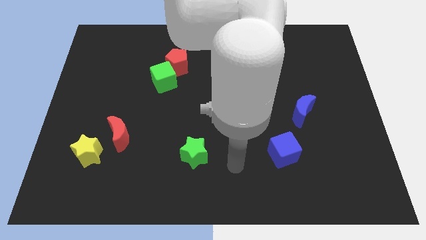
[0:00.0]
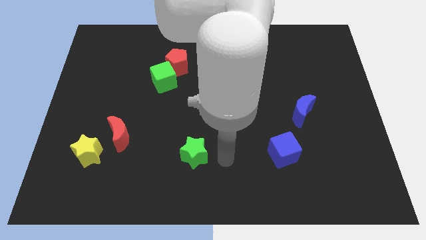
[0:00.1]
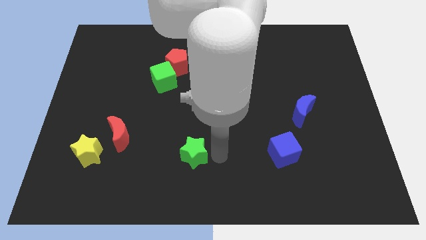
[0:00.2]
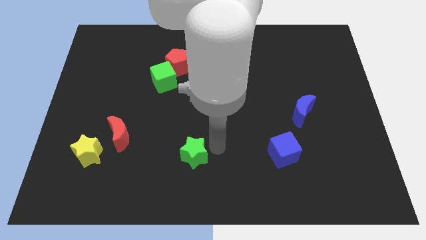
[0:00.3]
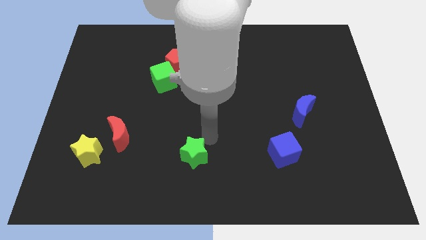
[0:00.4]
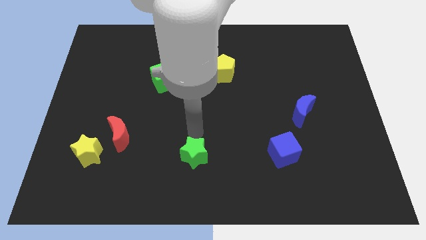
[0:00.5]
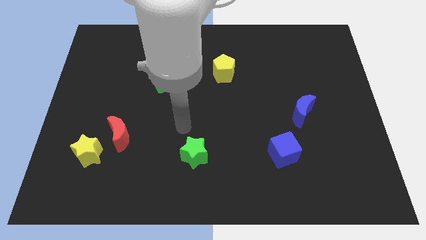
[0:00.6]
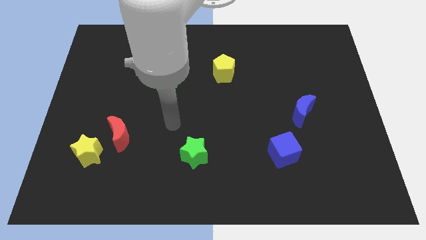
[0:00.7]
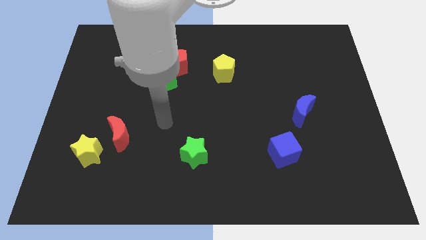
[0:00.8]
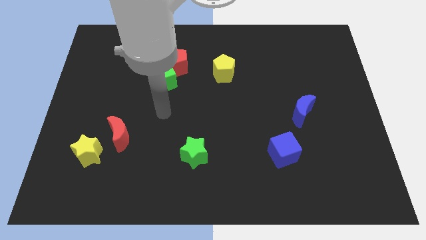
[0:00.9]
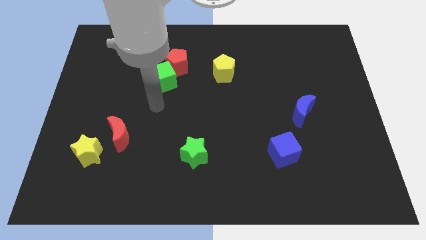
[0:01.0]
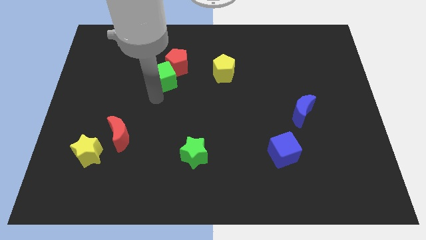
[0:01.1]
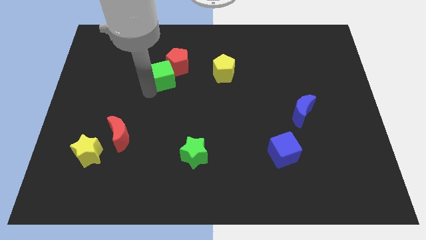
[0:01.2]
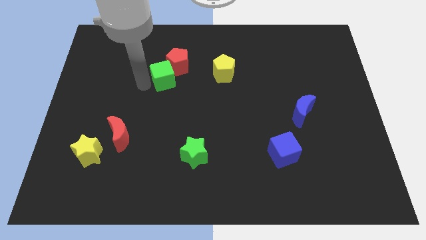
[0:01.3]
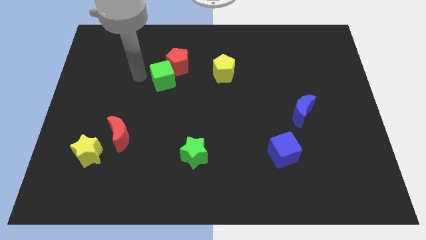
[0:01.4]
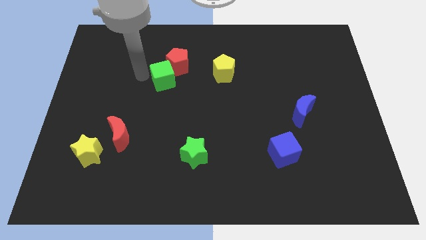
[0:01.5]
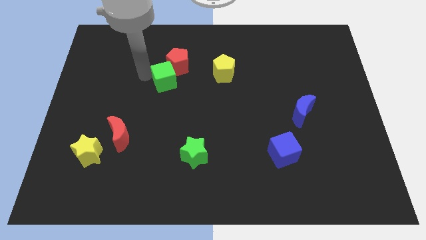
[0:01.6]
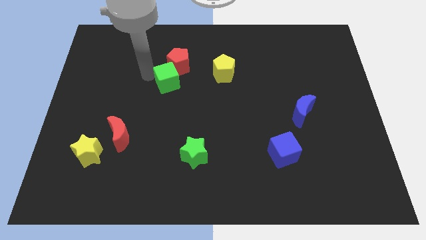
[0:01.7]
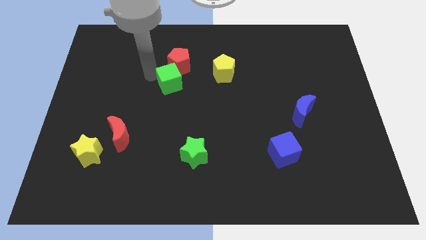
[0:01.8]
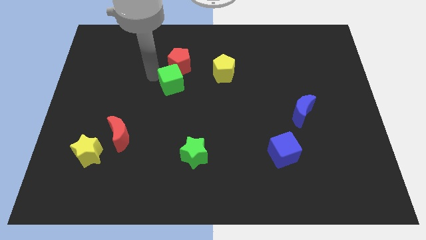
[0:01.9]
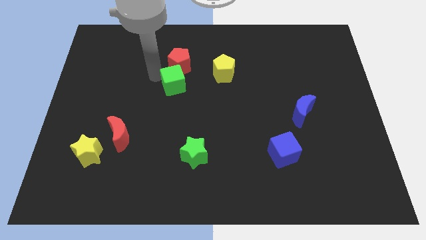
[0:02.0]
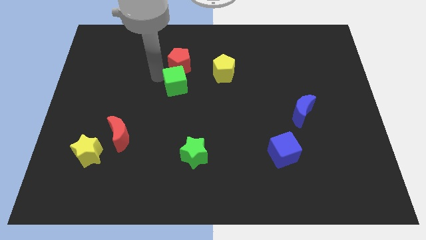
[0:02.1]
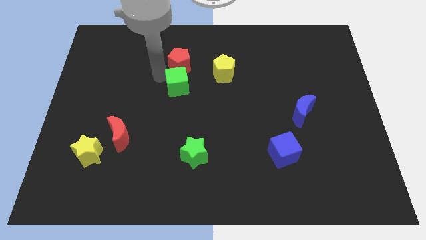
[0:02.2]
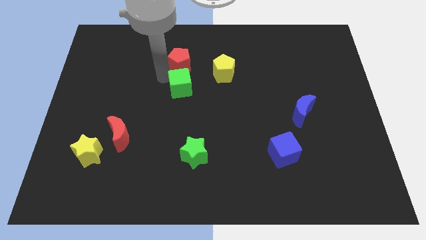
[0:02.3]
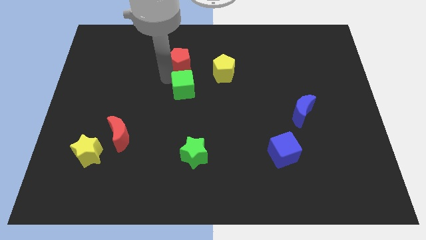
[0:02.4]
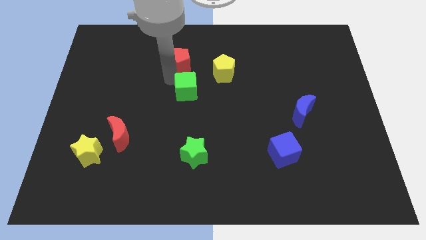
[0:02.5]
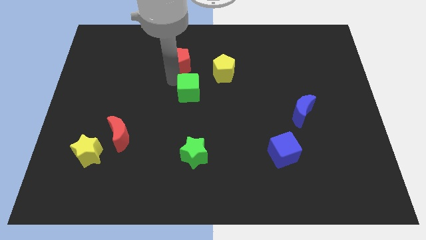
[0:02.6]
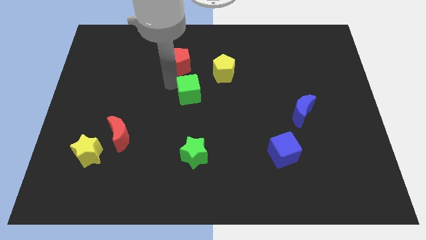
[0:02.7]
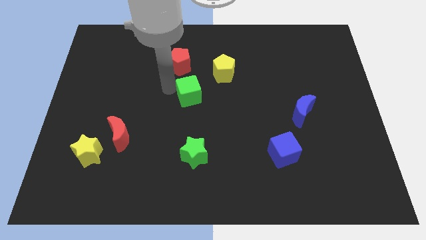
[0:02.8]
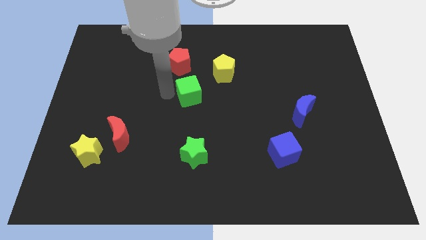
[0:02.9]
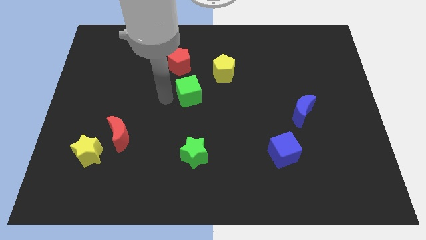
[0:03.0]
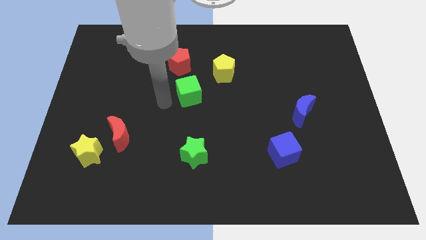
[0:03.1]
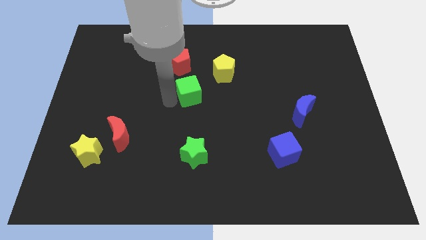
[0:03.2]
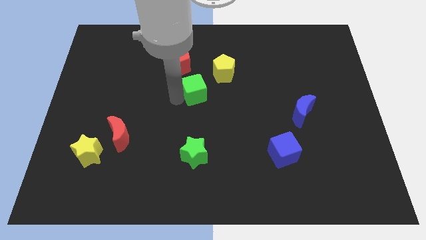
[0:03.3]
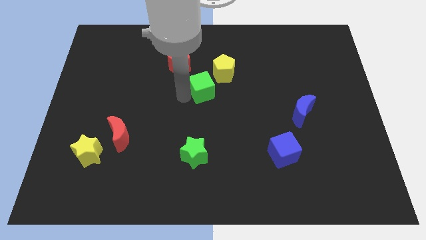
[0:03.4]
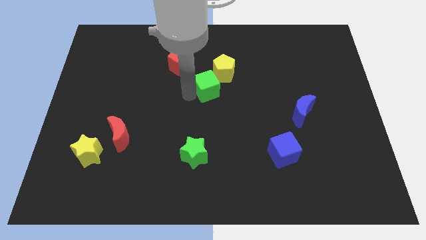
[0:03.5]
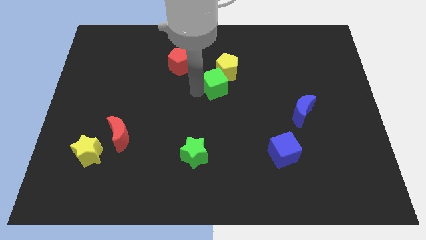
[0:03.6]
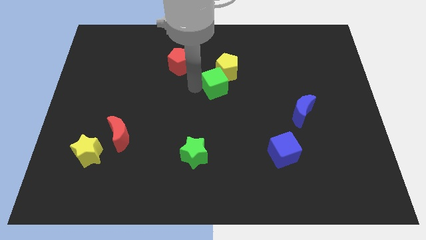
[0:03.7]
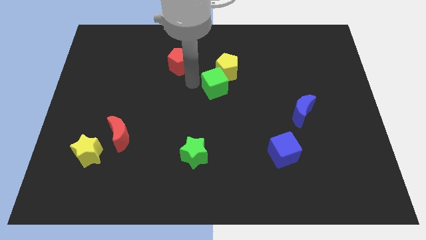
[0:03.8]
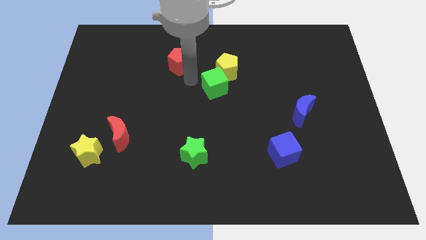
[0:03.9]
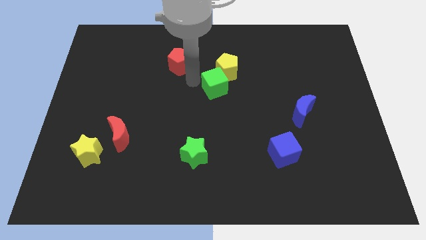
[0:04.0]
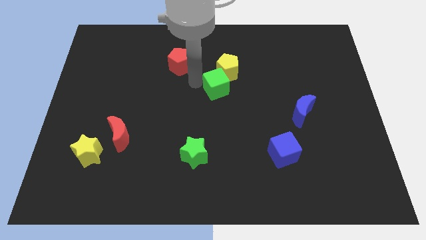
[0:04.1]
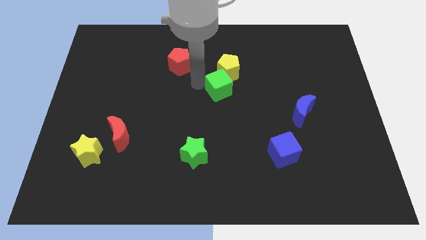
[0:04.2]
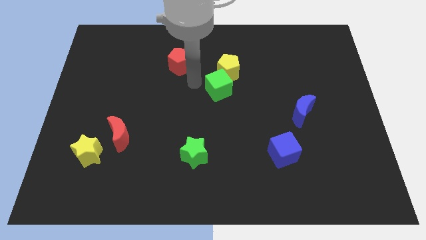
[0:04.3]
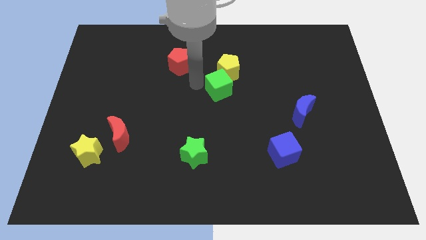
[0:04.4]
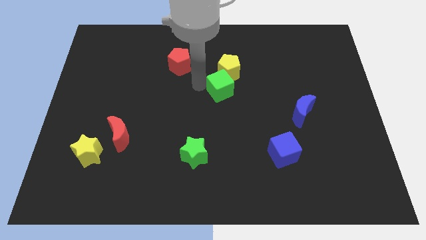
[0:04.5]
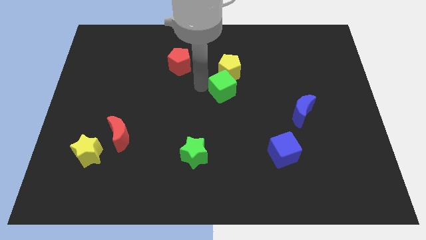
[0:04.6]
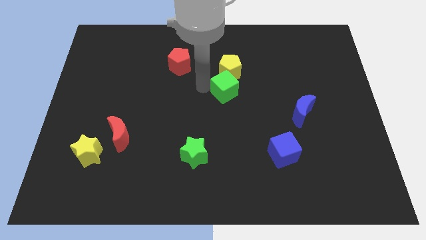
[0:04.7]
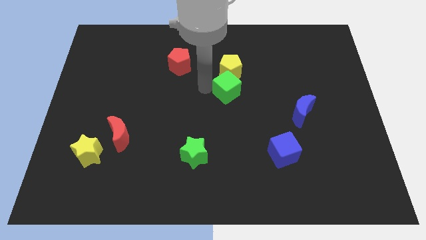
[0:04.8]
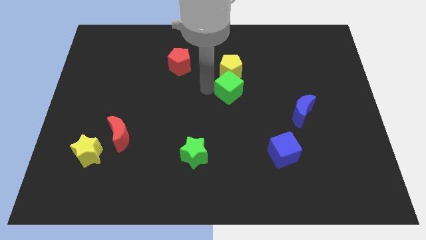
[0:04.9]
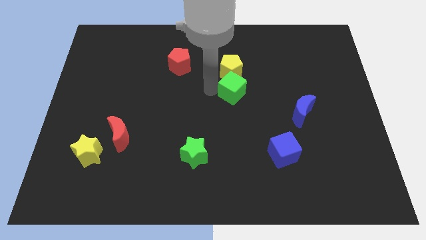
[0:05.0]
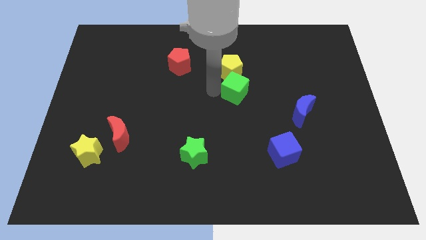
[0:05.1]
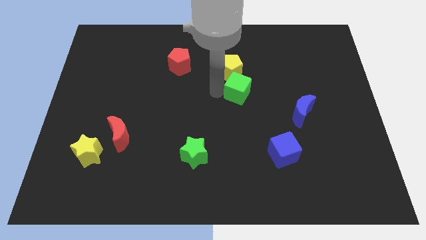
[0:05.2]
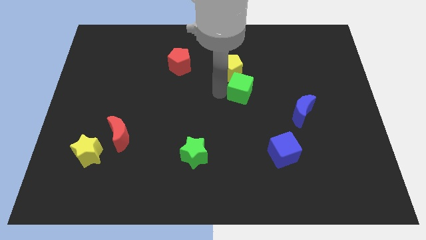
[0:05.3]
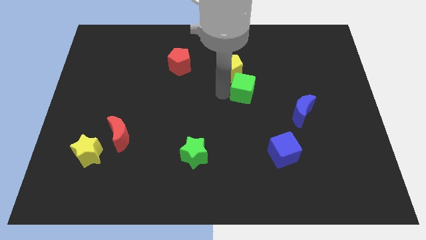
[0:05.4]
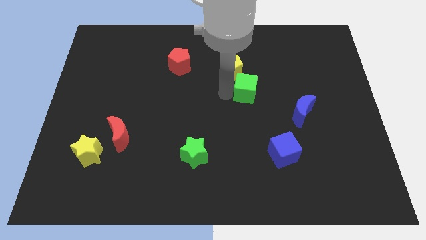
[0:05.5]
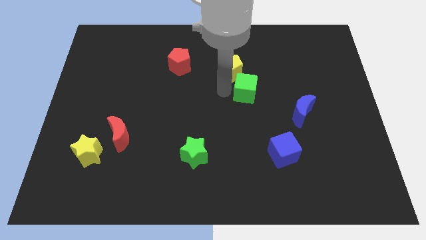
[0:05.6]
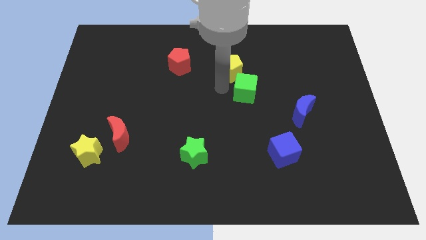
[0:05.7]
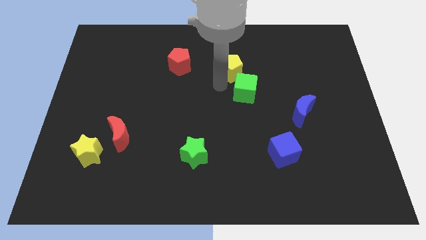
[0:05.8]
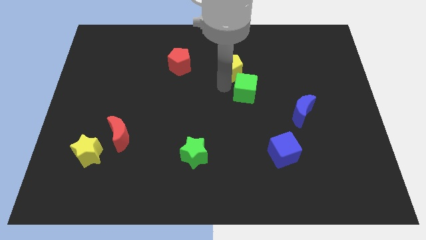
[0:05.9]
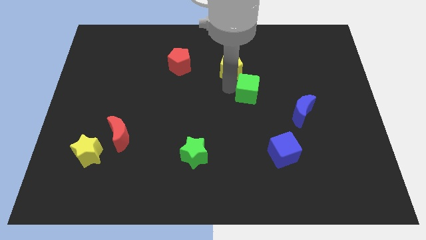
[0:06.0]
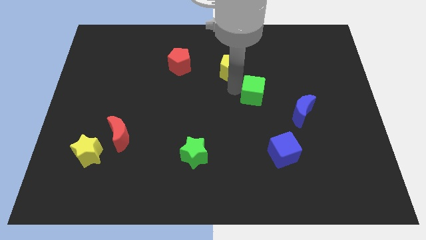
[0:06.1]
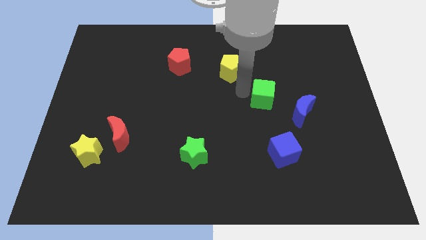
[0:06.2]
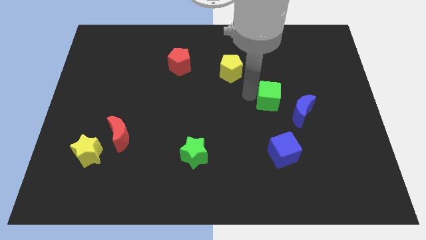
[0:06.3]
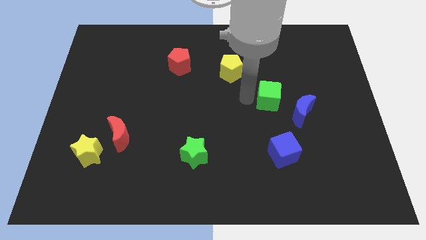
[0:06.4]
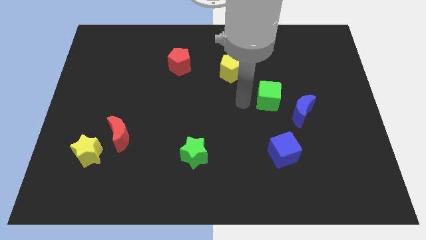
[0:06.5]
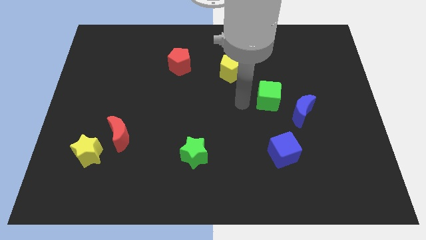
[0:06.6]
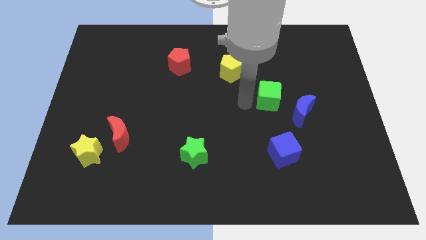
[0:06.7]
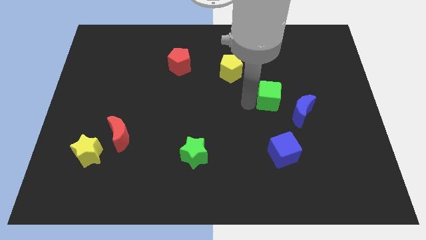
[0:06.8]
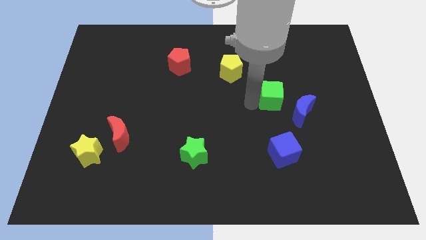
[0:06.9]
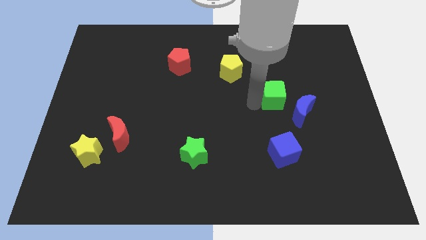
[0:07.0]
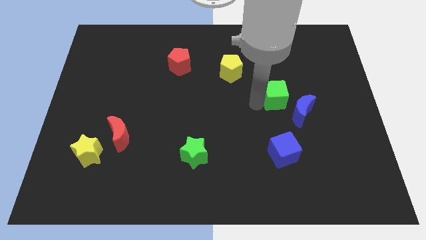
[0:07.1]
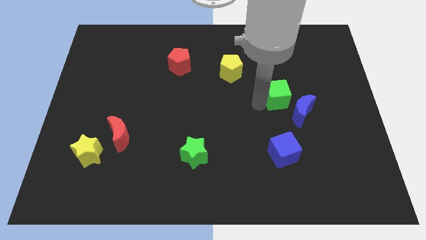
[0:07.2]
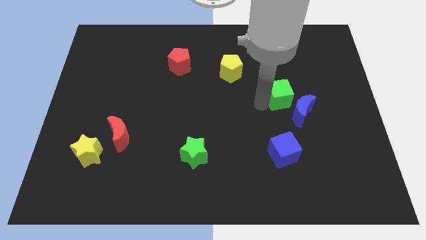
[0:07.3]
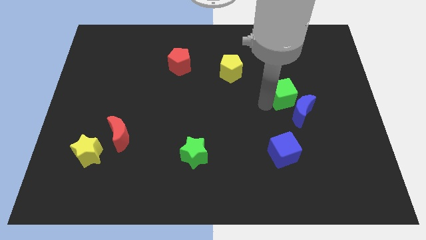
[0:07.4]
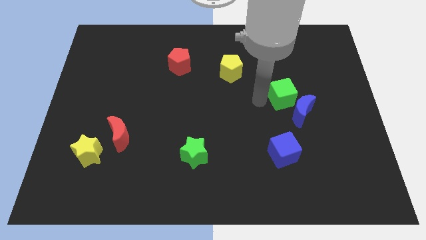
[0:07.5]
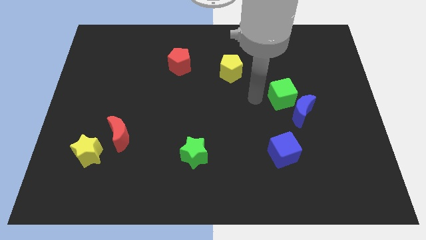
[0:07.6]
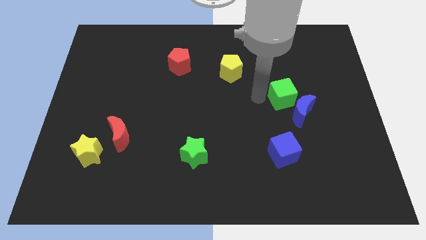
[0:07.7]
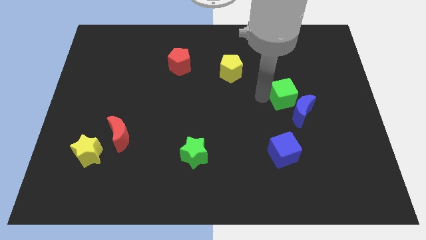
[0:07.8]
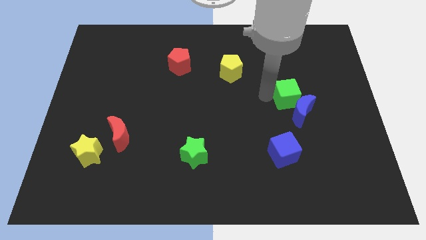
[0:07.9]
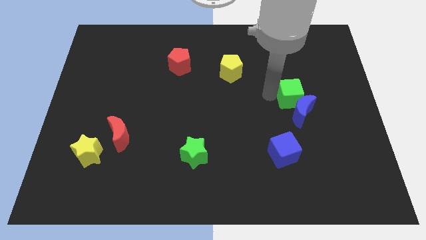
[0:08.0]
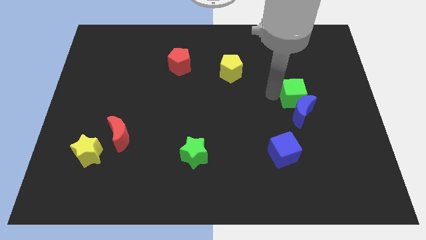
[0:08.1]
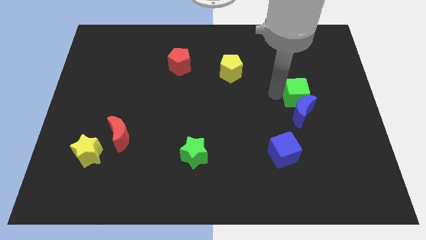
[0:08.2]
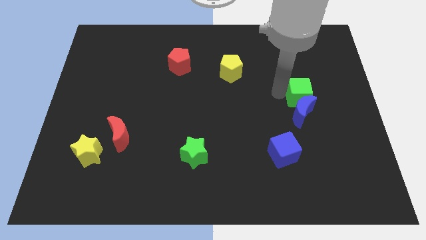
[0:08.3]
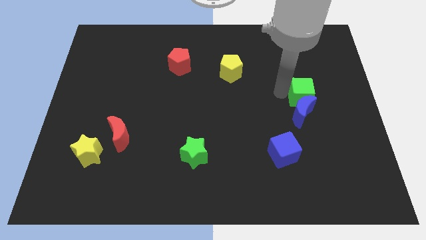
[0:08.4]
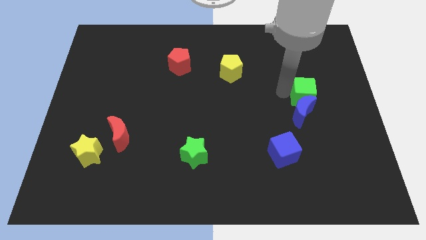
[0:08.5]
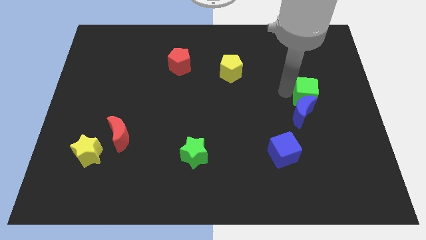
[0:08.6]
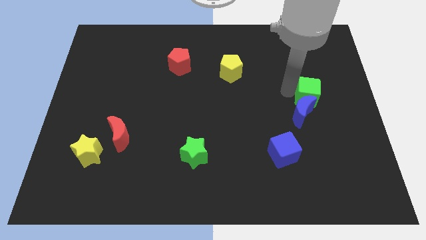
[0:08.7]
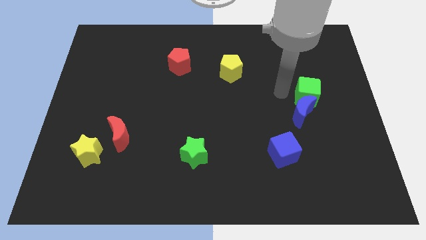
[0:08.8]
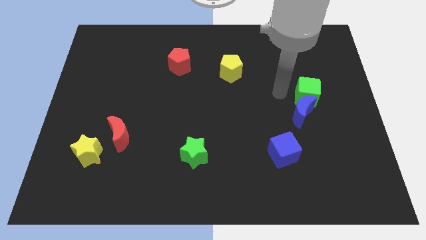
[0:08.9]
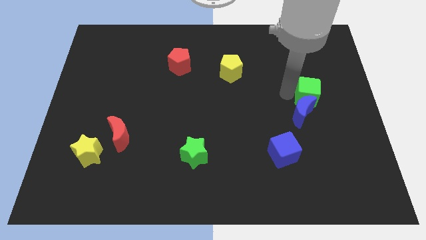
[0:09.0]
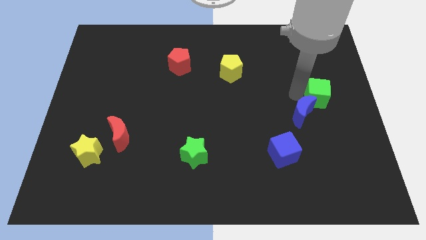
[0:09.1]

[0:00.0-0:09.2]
push the green cube to the right side
